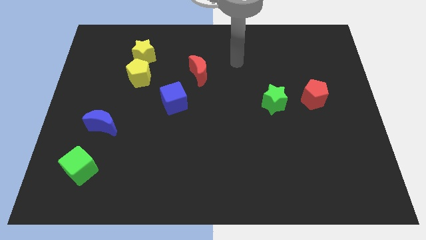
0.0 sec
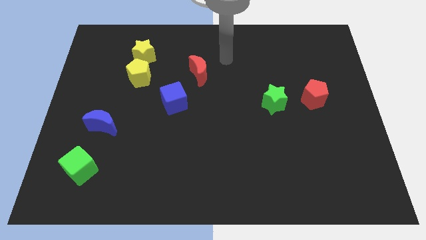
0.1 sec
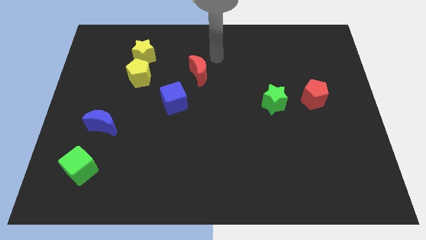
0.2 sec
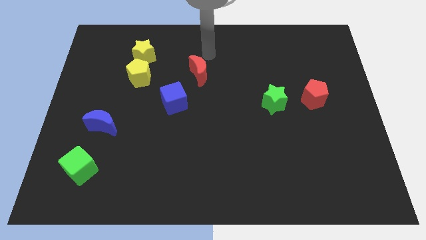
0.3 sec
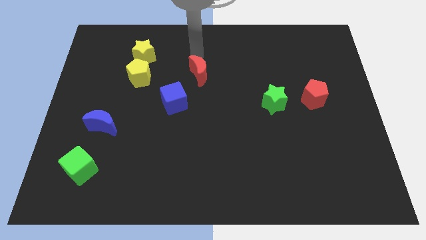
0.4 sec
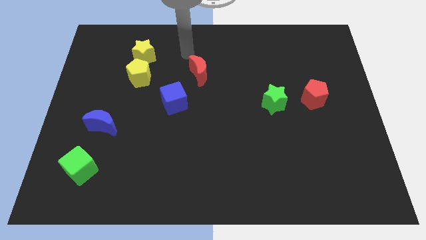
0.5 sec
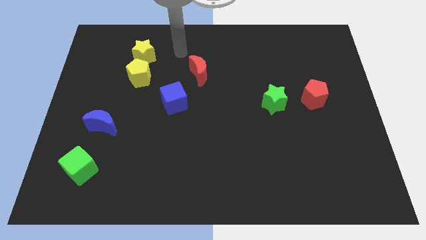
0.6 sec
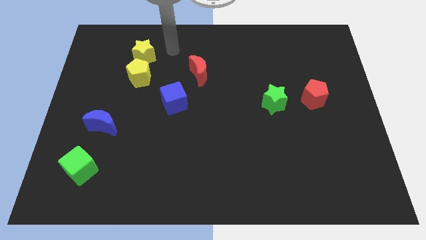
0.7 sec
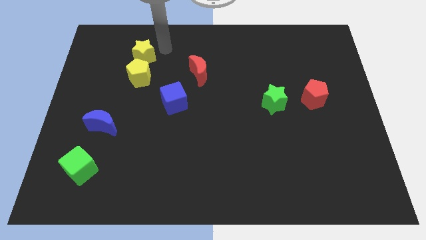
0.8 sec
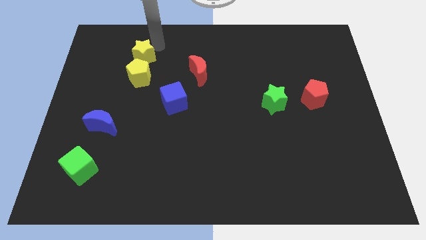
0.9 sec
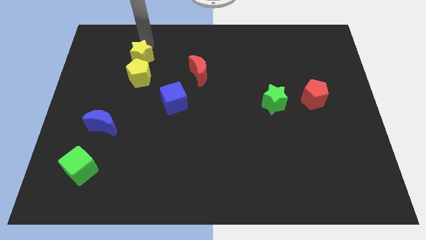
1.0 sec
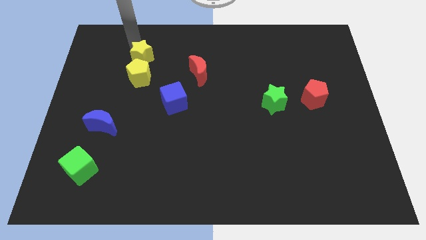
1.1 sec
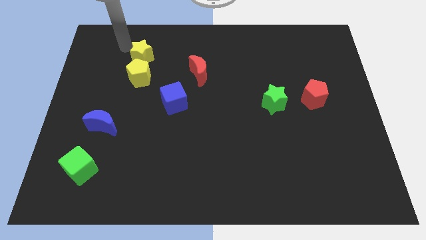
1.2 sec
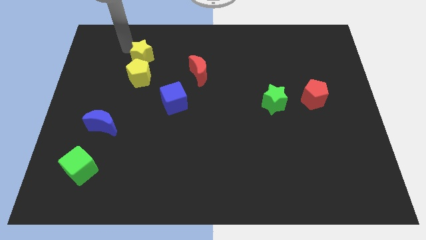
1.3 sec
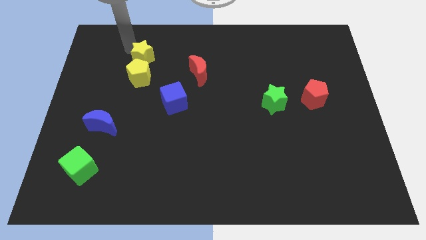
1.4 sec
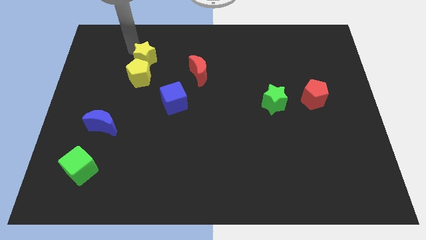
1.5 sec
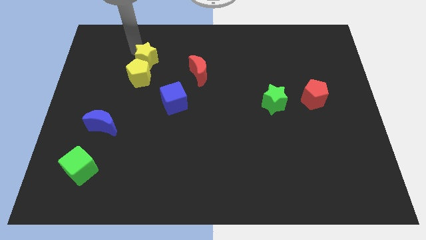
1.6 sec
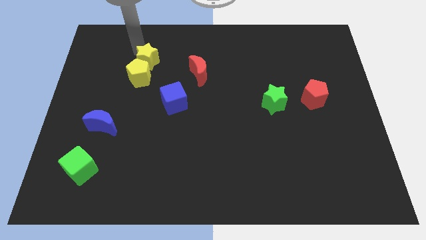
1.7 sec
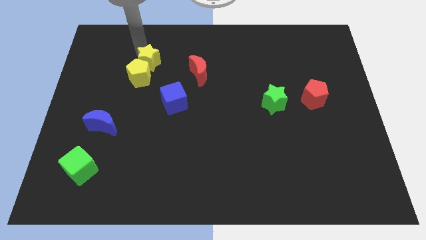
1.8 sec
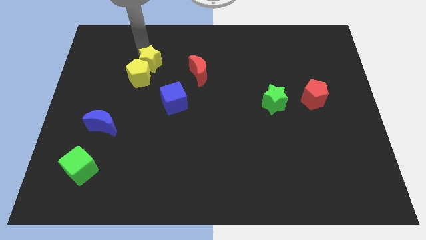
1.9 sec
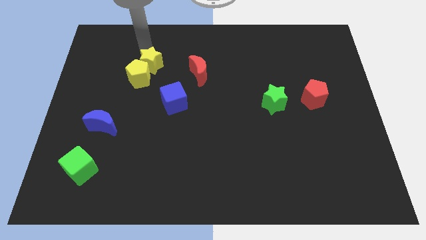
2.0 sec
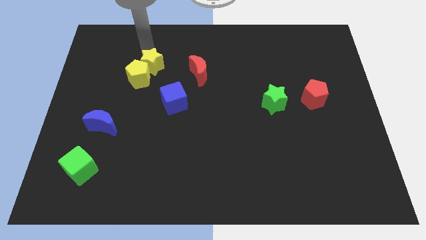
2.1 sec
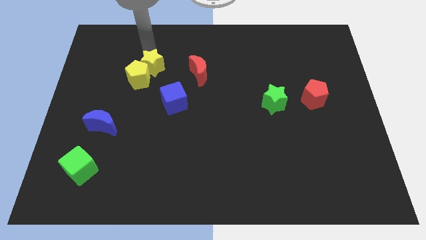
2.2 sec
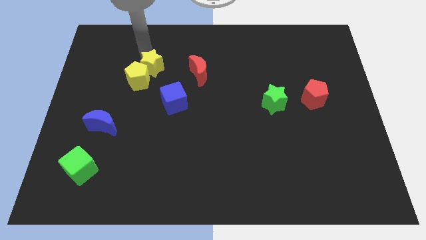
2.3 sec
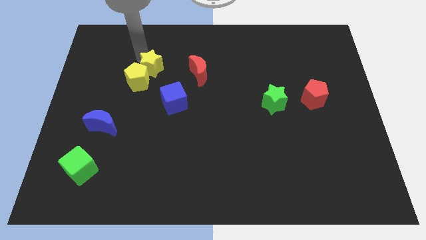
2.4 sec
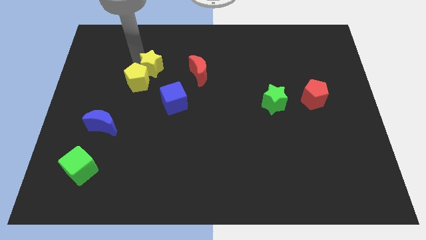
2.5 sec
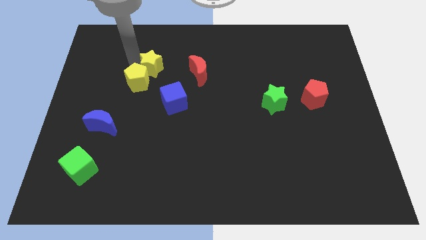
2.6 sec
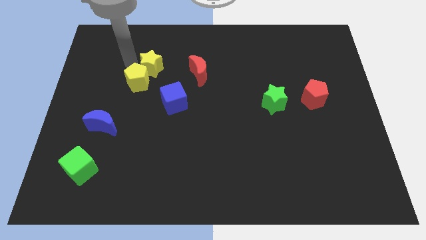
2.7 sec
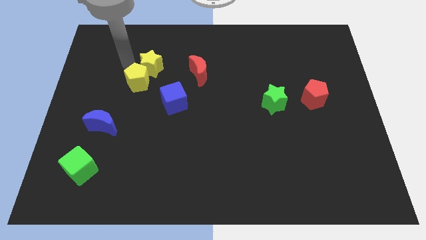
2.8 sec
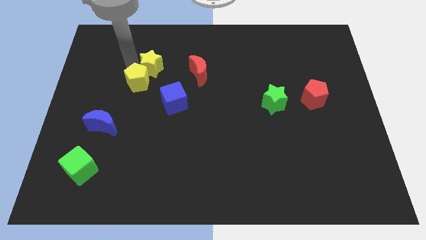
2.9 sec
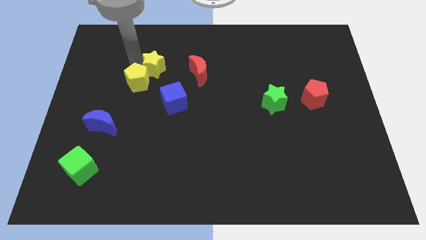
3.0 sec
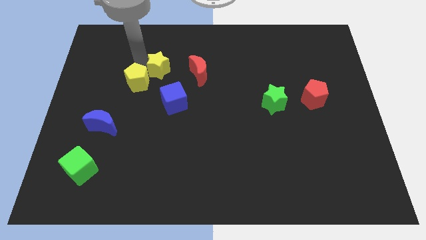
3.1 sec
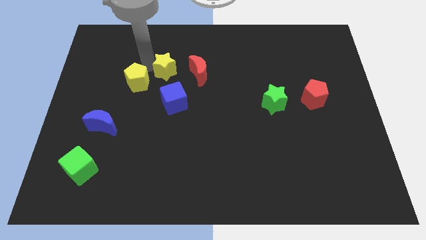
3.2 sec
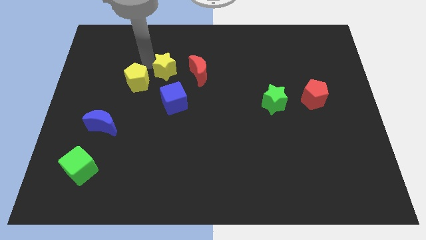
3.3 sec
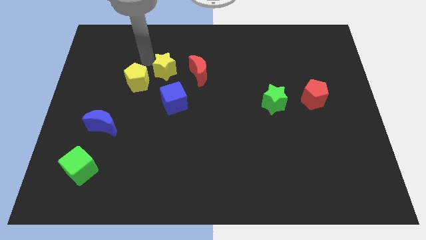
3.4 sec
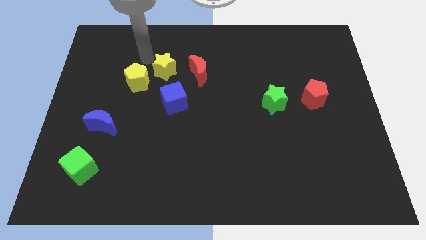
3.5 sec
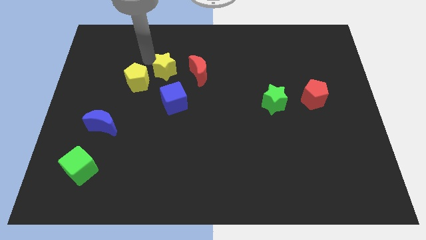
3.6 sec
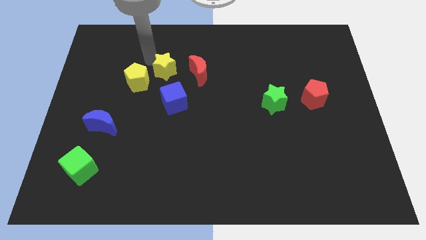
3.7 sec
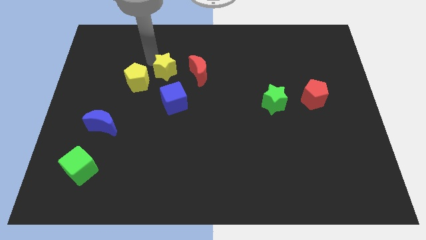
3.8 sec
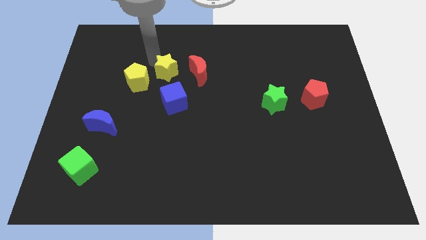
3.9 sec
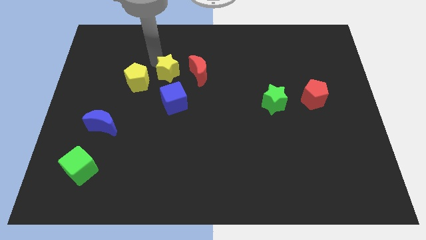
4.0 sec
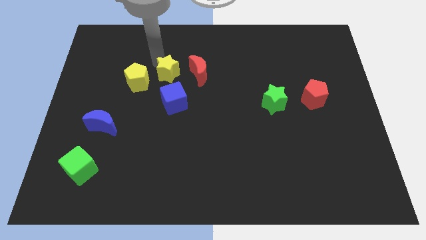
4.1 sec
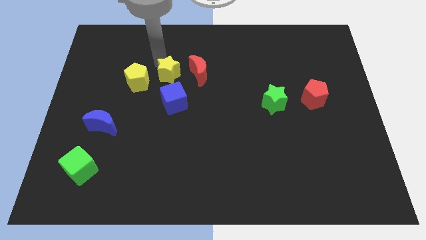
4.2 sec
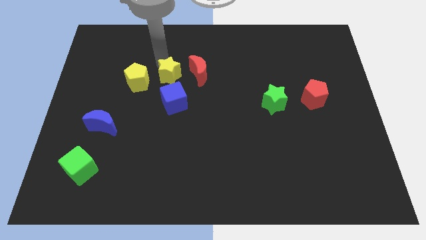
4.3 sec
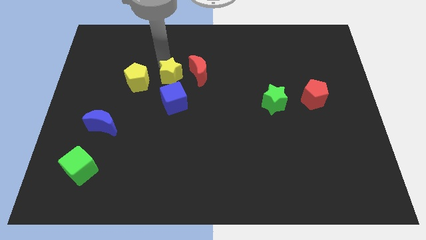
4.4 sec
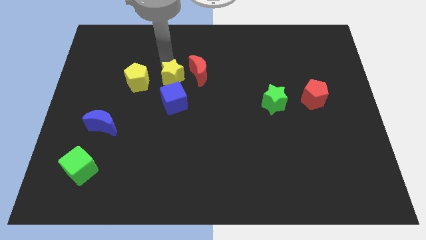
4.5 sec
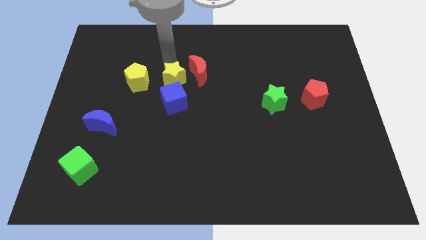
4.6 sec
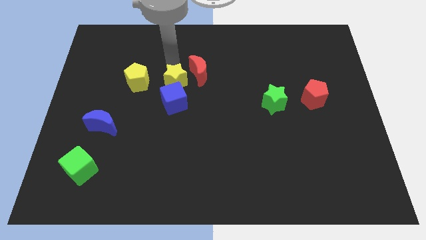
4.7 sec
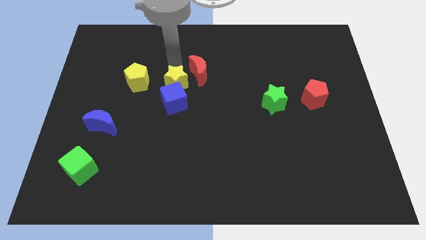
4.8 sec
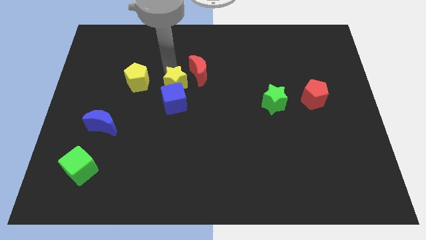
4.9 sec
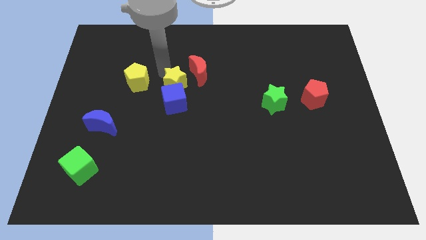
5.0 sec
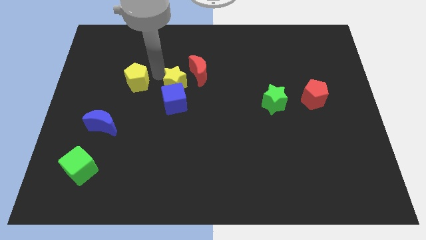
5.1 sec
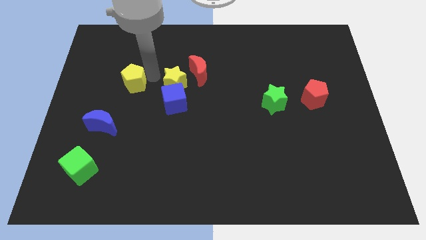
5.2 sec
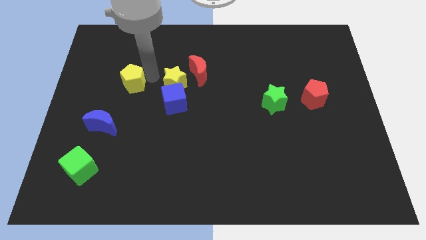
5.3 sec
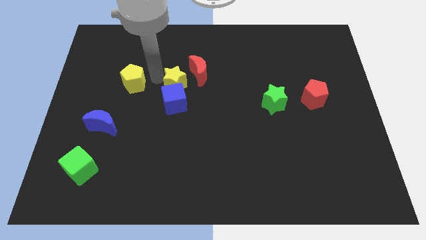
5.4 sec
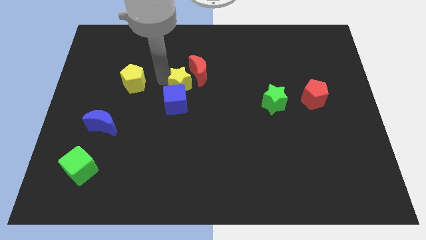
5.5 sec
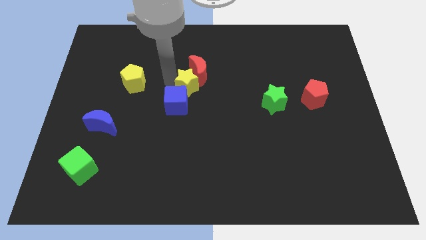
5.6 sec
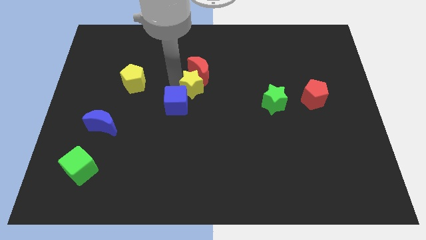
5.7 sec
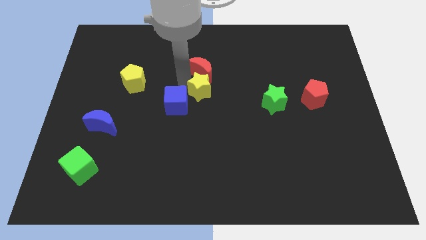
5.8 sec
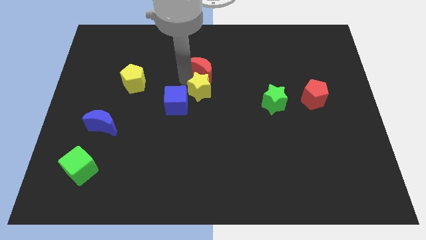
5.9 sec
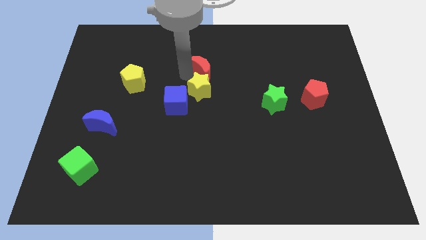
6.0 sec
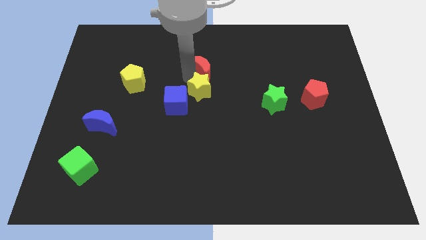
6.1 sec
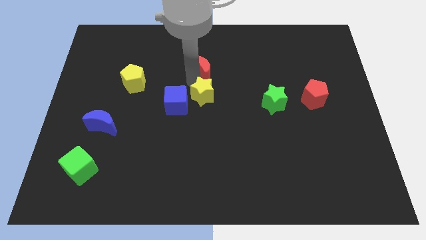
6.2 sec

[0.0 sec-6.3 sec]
move the yellow star down and to the right

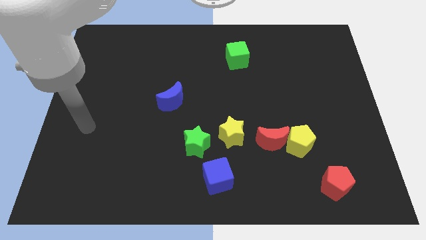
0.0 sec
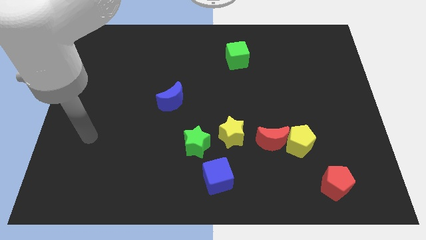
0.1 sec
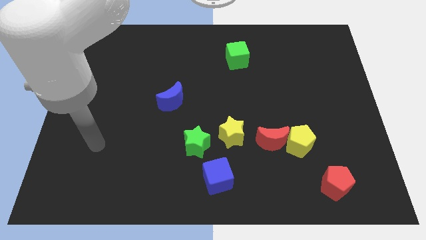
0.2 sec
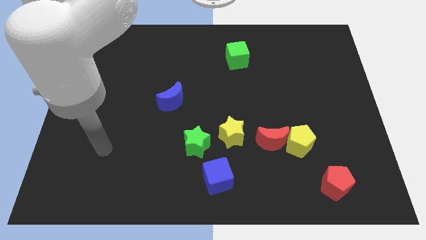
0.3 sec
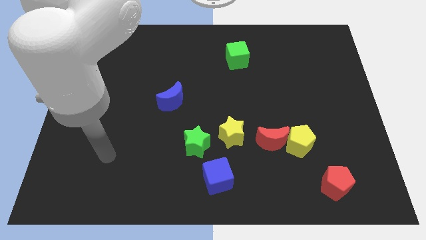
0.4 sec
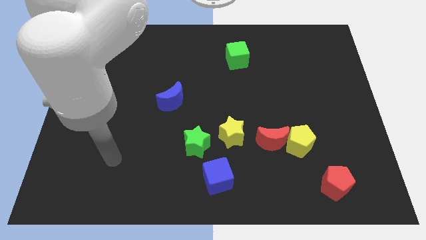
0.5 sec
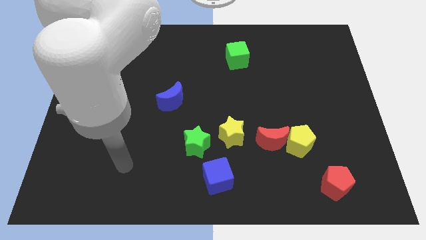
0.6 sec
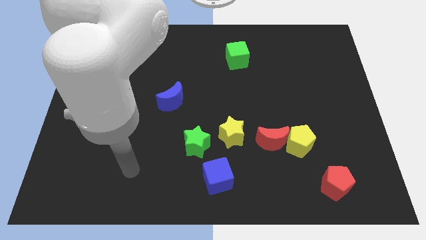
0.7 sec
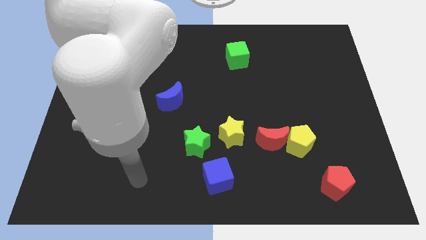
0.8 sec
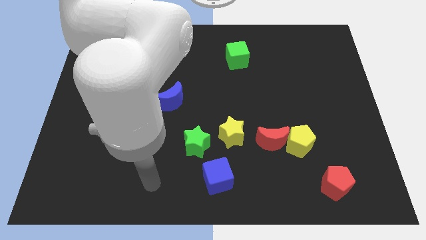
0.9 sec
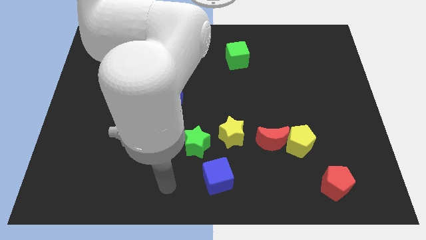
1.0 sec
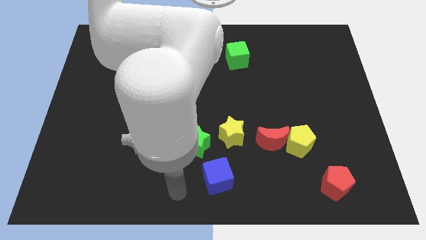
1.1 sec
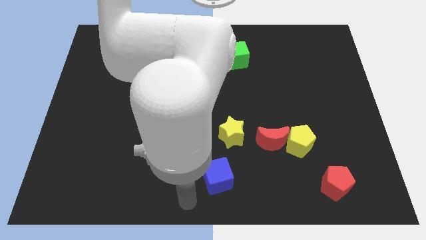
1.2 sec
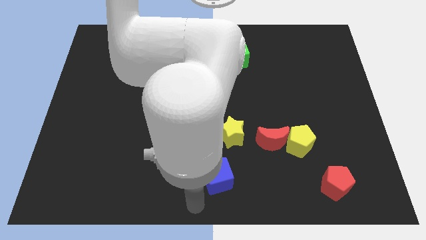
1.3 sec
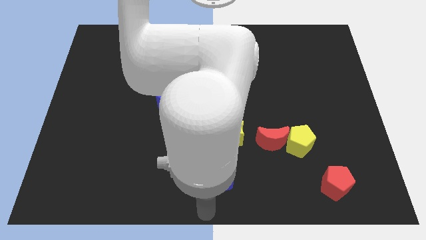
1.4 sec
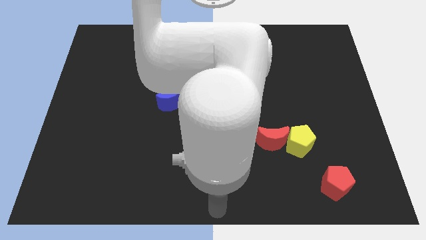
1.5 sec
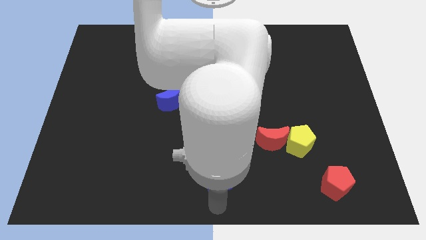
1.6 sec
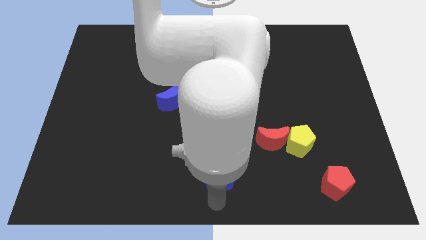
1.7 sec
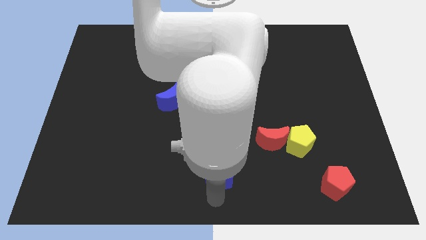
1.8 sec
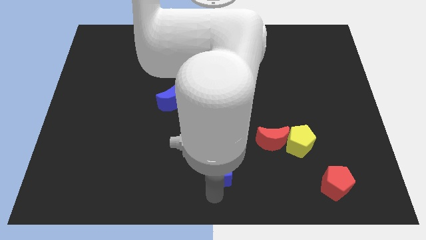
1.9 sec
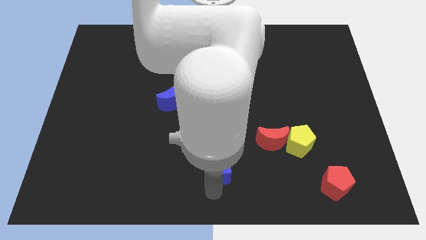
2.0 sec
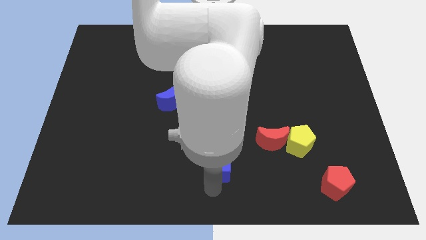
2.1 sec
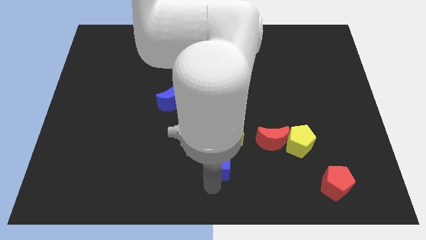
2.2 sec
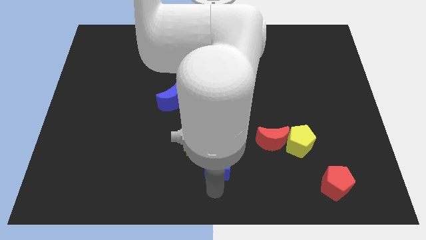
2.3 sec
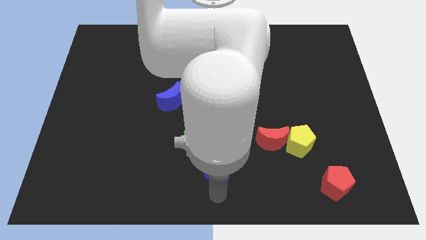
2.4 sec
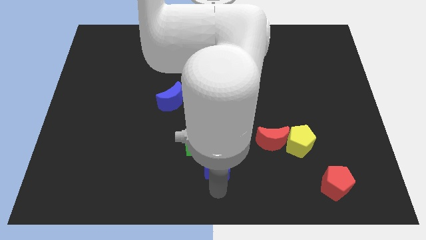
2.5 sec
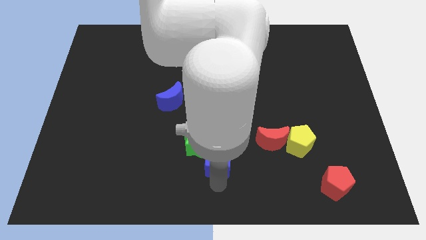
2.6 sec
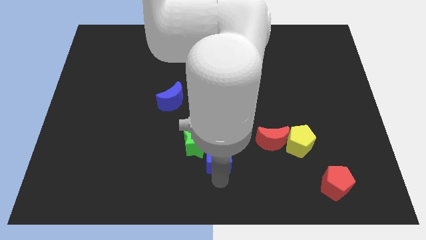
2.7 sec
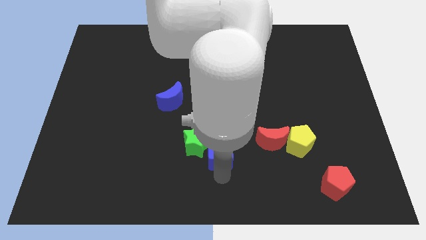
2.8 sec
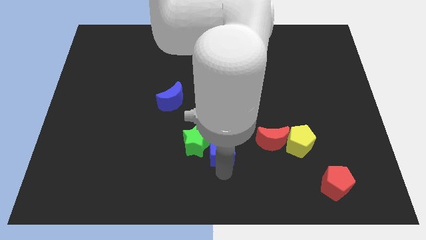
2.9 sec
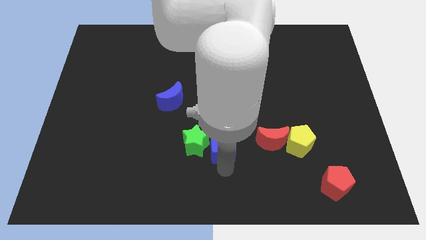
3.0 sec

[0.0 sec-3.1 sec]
slide the blue cube somewhat up
